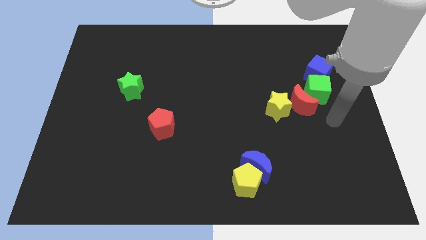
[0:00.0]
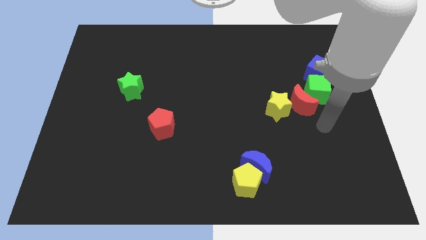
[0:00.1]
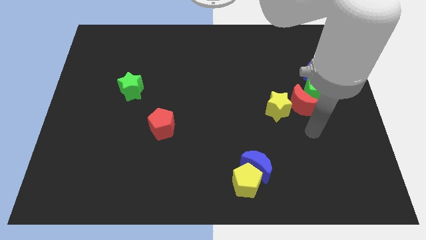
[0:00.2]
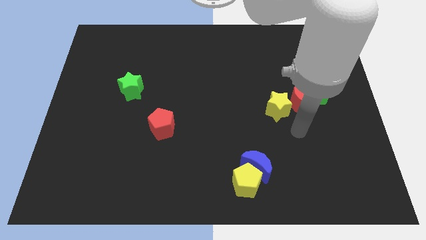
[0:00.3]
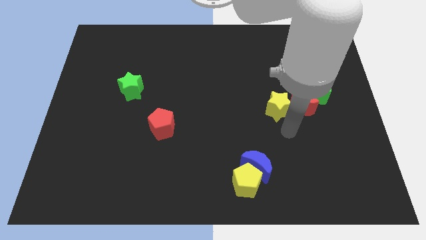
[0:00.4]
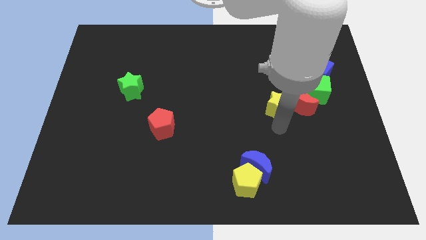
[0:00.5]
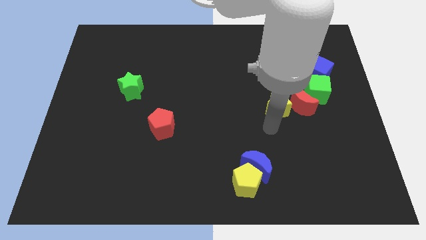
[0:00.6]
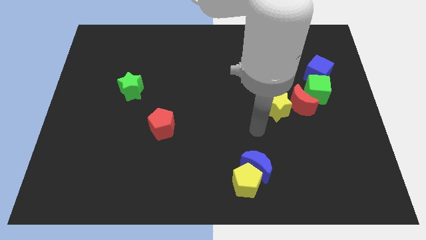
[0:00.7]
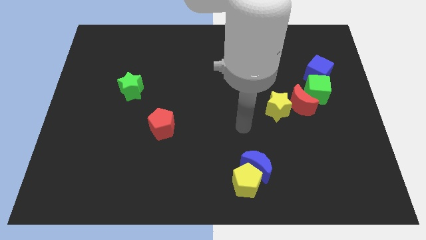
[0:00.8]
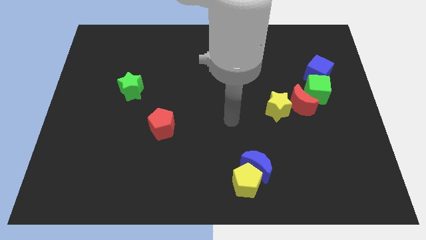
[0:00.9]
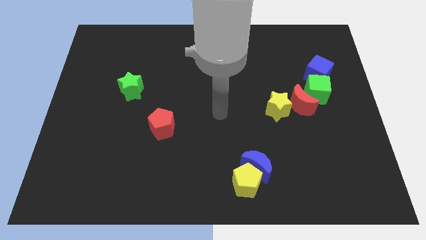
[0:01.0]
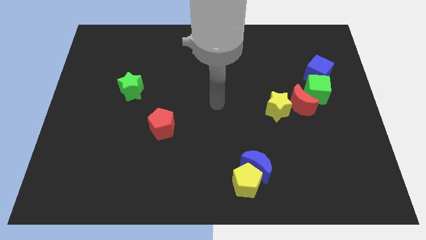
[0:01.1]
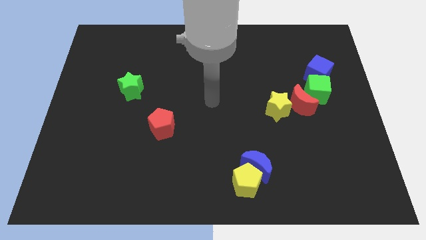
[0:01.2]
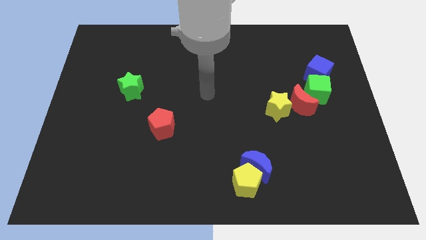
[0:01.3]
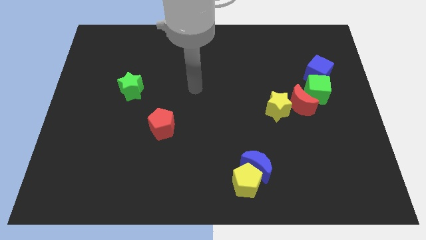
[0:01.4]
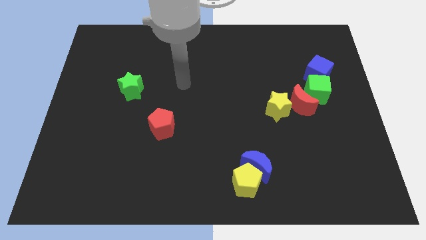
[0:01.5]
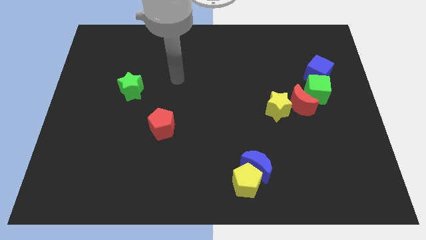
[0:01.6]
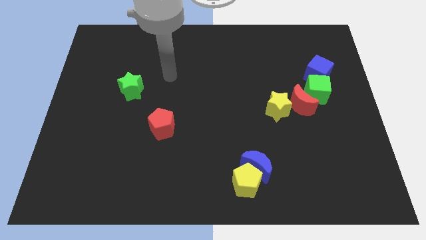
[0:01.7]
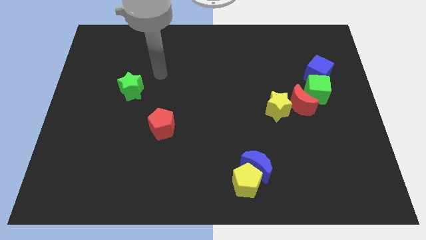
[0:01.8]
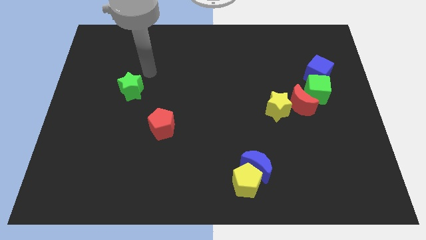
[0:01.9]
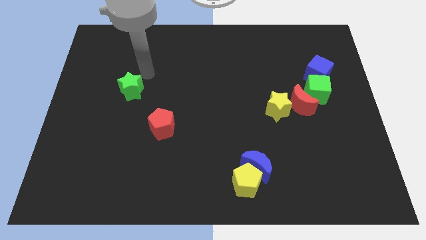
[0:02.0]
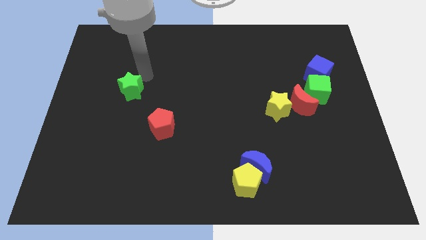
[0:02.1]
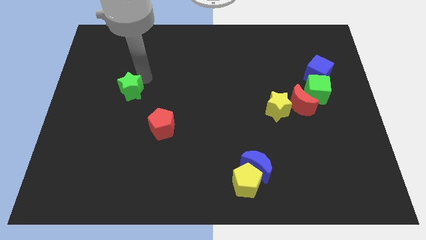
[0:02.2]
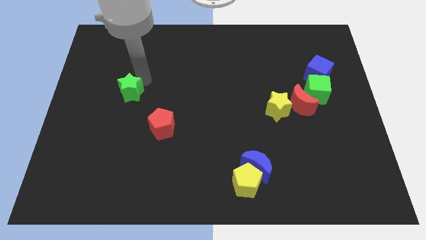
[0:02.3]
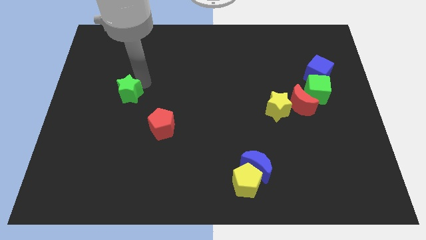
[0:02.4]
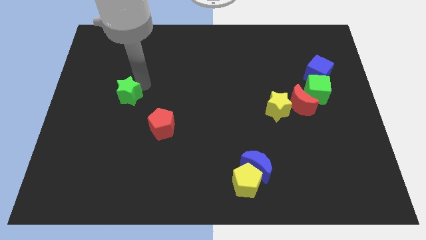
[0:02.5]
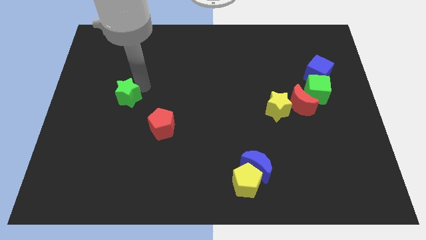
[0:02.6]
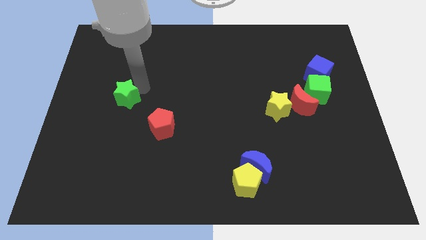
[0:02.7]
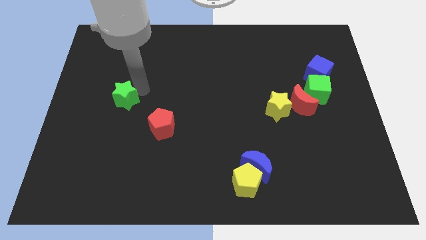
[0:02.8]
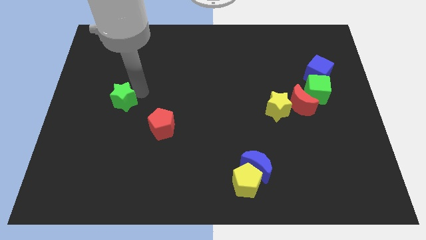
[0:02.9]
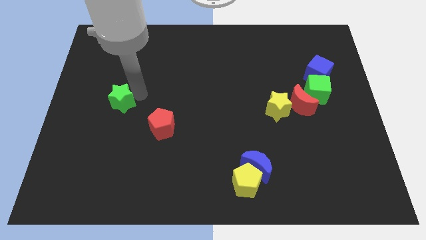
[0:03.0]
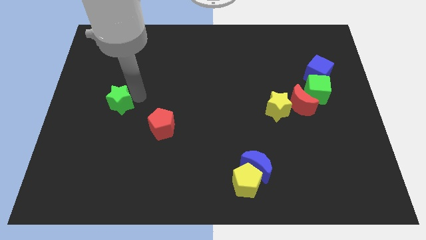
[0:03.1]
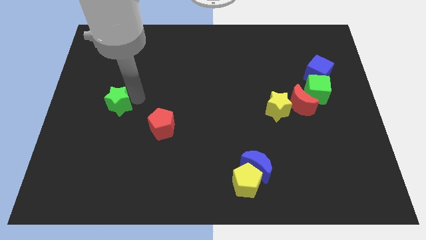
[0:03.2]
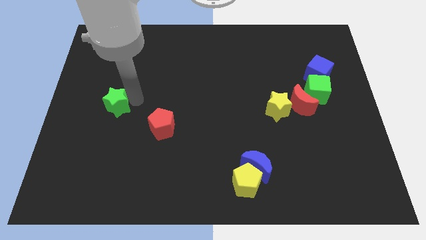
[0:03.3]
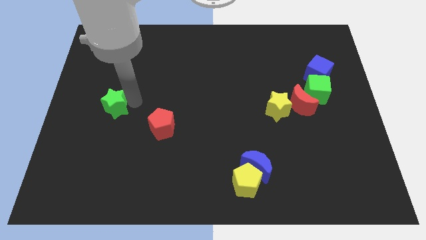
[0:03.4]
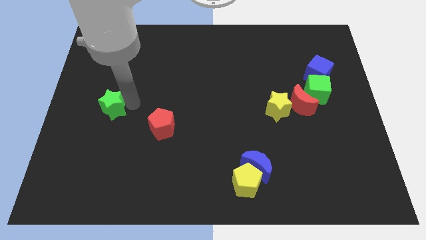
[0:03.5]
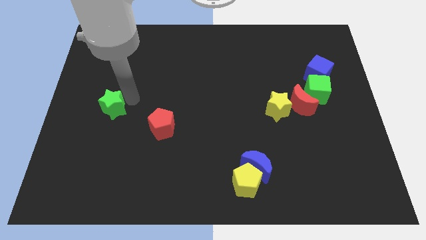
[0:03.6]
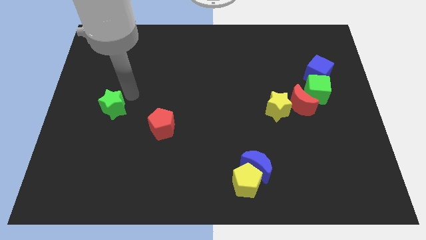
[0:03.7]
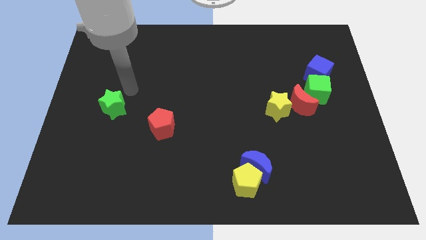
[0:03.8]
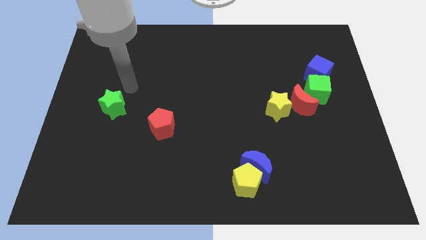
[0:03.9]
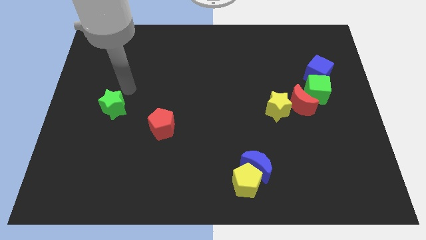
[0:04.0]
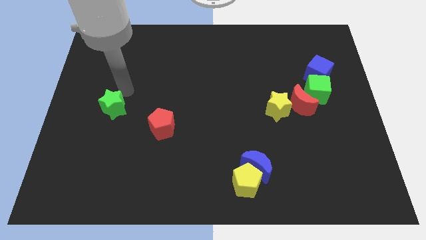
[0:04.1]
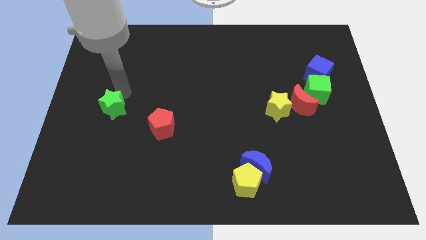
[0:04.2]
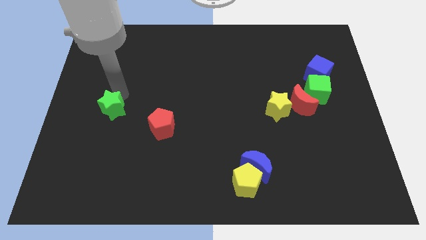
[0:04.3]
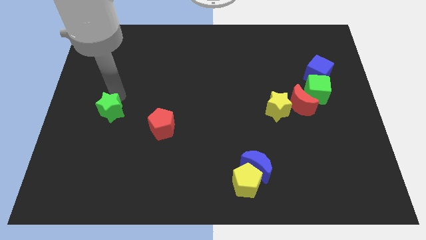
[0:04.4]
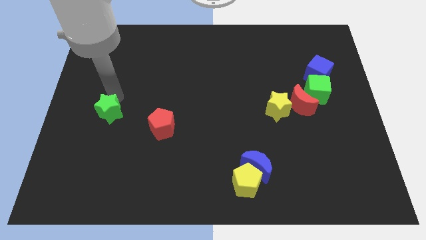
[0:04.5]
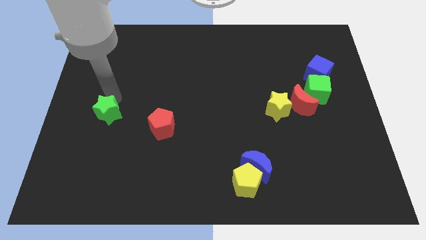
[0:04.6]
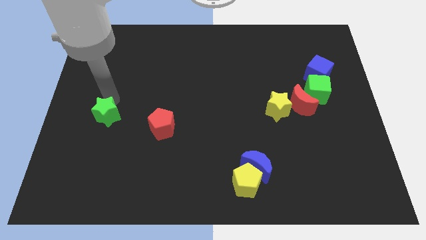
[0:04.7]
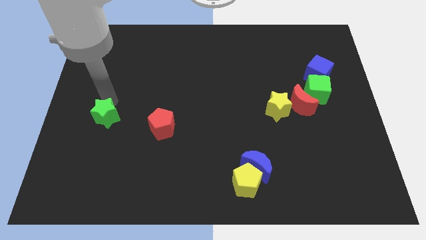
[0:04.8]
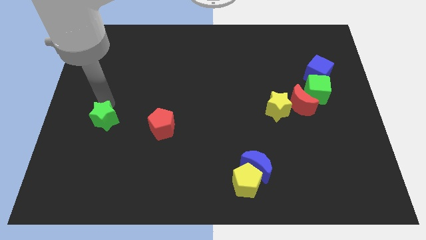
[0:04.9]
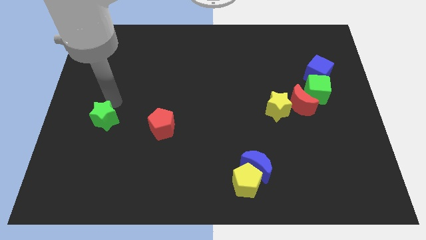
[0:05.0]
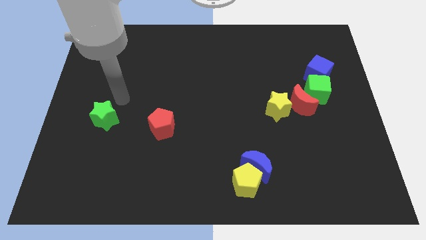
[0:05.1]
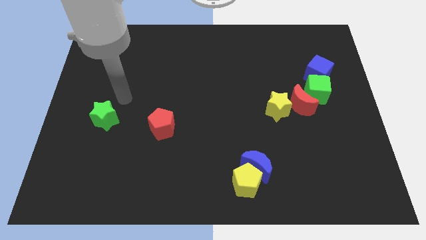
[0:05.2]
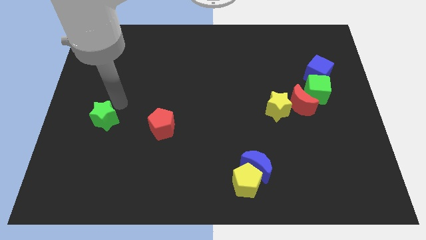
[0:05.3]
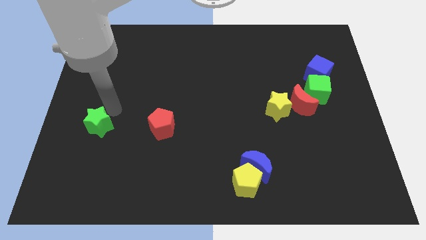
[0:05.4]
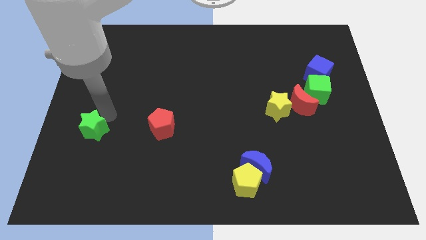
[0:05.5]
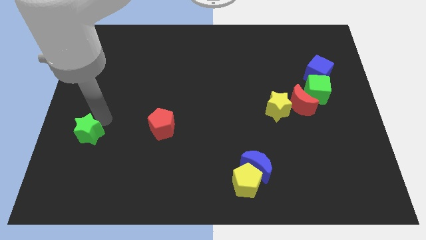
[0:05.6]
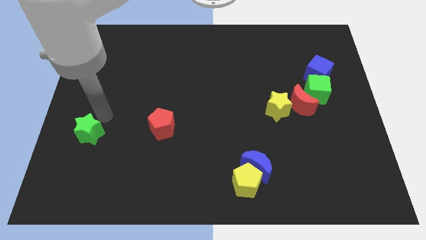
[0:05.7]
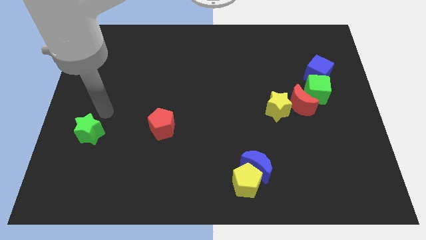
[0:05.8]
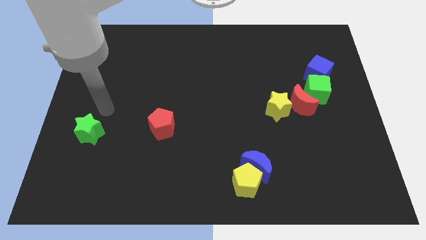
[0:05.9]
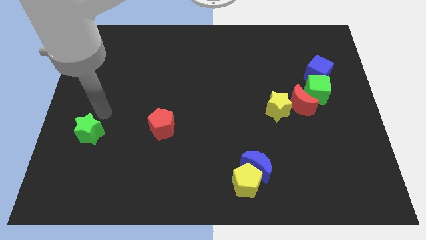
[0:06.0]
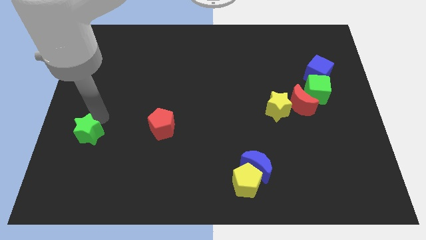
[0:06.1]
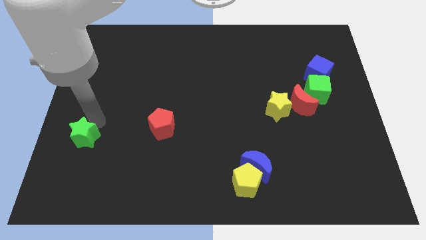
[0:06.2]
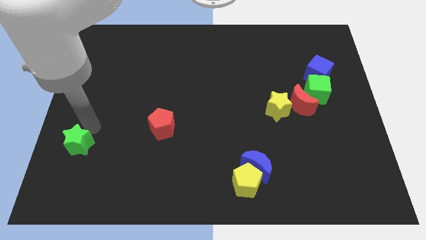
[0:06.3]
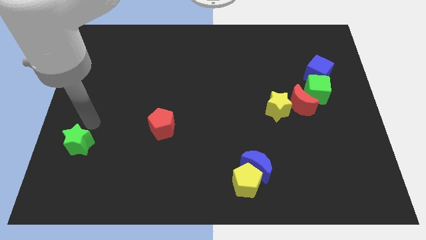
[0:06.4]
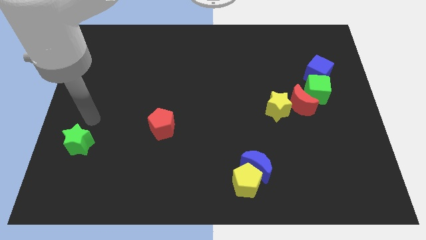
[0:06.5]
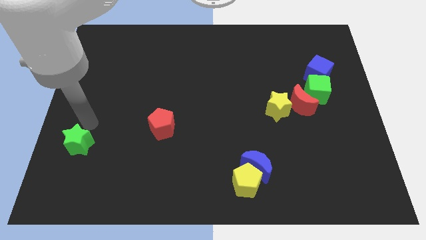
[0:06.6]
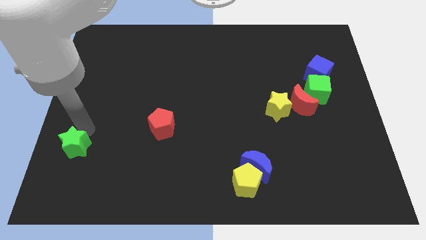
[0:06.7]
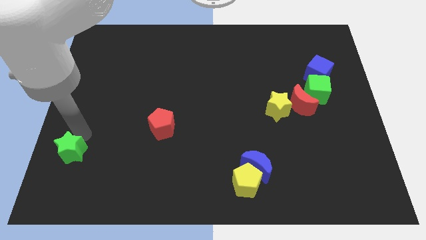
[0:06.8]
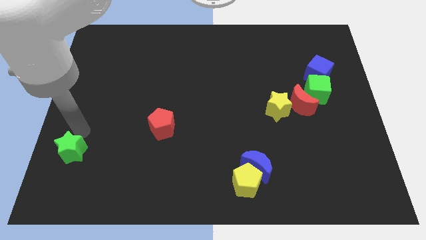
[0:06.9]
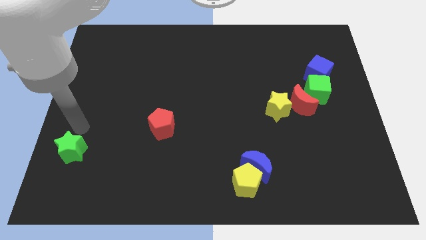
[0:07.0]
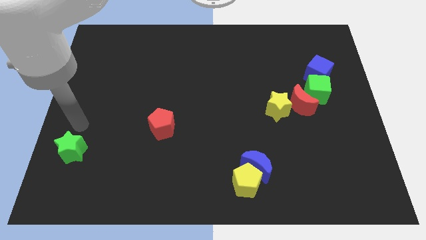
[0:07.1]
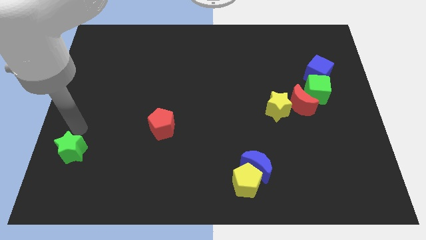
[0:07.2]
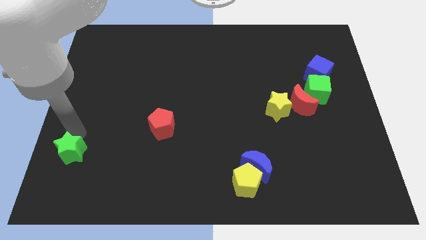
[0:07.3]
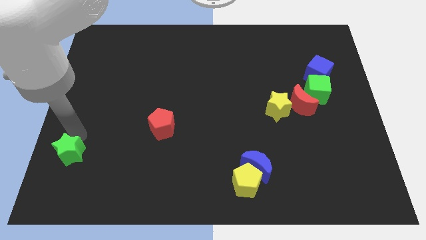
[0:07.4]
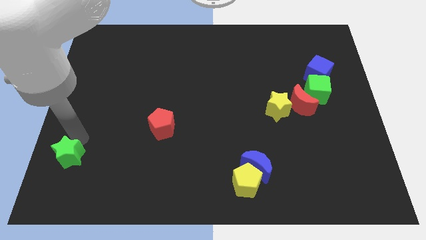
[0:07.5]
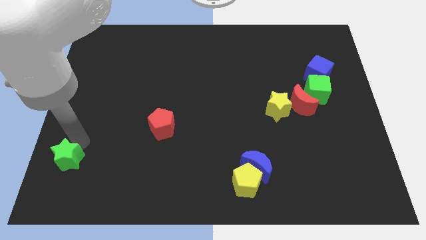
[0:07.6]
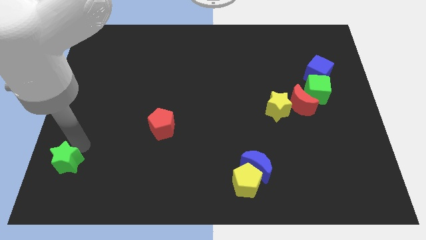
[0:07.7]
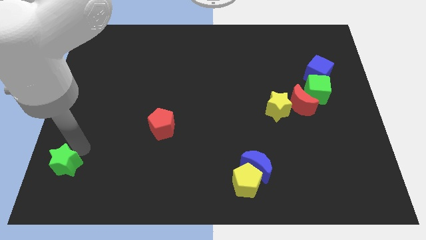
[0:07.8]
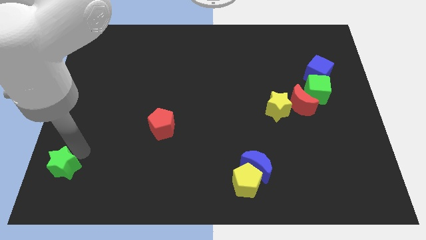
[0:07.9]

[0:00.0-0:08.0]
move the green star to the bottom left
